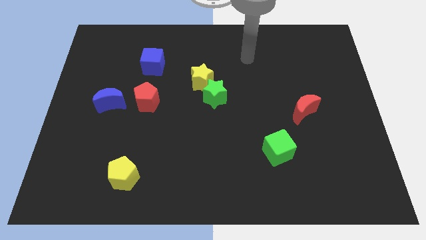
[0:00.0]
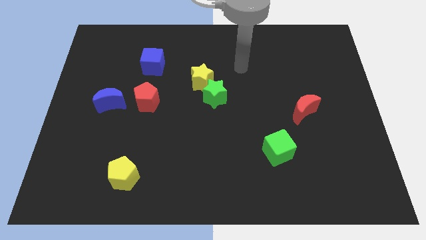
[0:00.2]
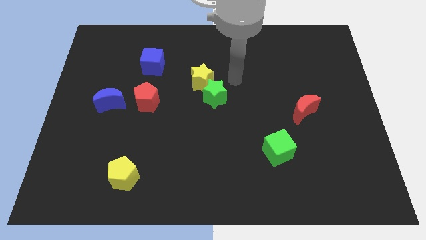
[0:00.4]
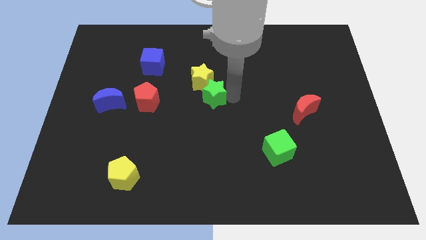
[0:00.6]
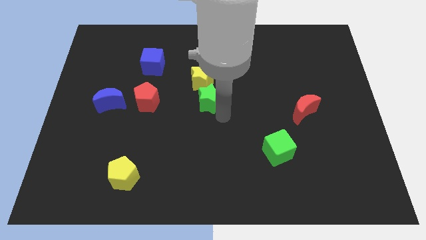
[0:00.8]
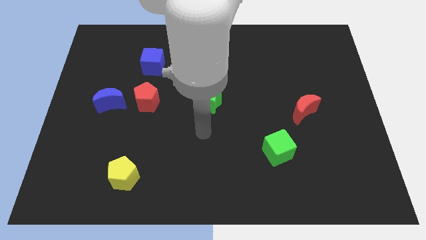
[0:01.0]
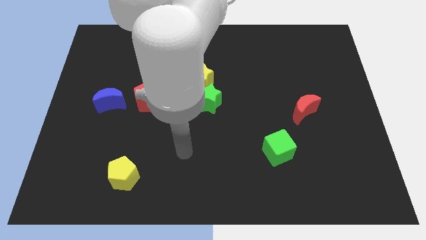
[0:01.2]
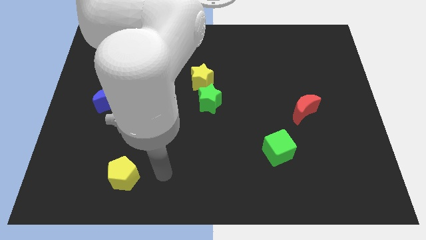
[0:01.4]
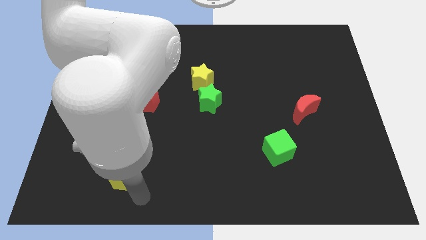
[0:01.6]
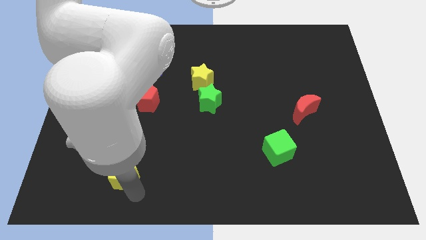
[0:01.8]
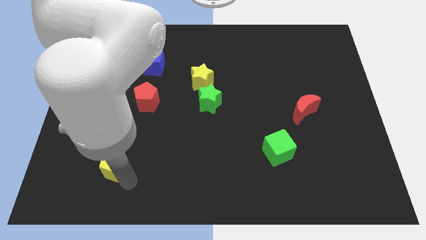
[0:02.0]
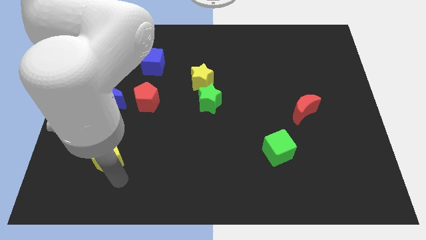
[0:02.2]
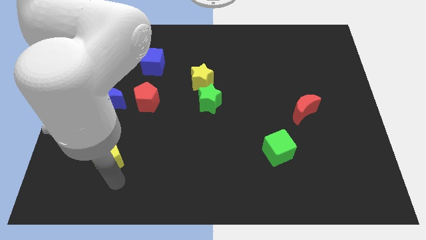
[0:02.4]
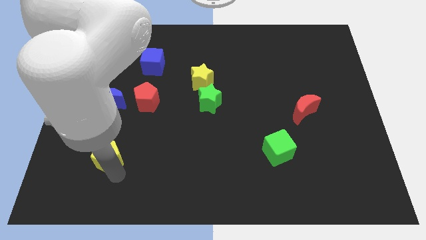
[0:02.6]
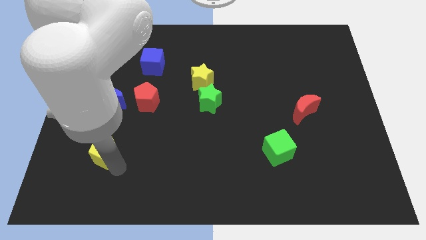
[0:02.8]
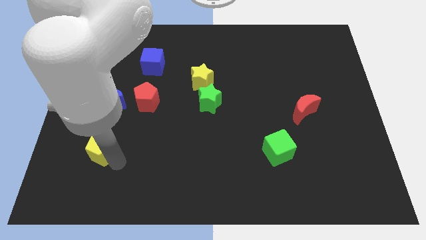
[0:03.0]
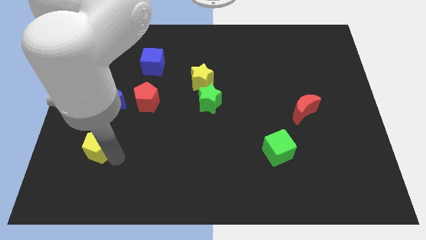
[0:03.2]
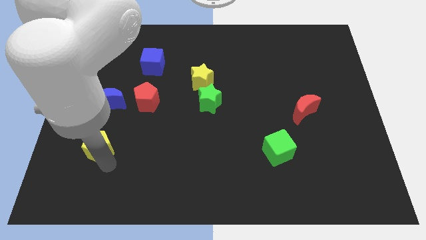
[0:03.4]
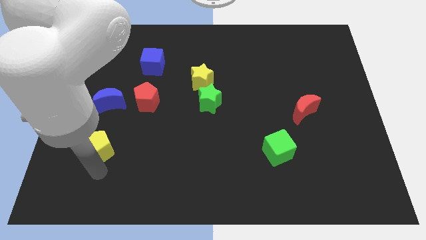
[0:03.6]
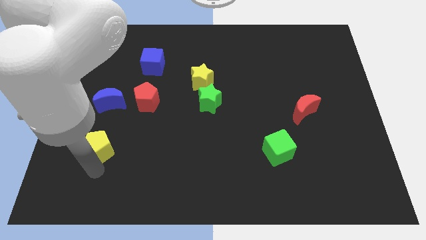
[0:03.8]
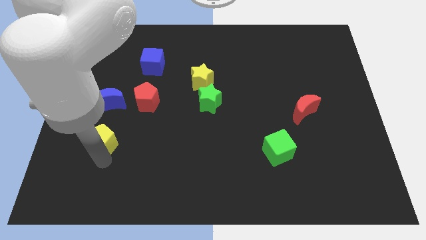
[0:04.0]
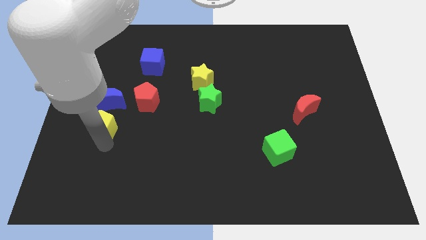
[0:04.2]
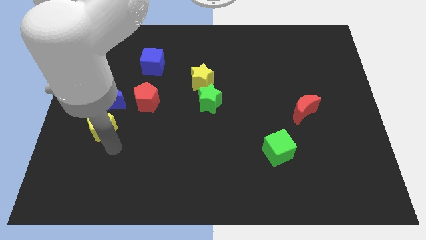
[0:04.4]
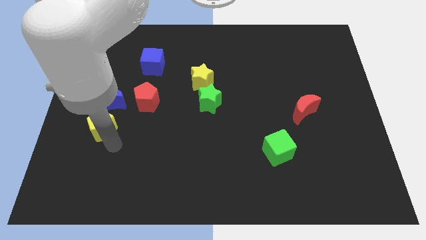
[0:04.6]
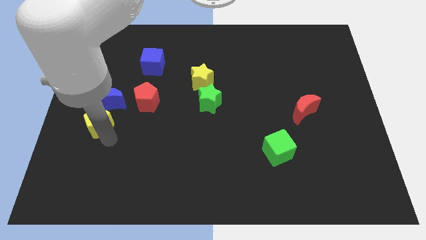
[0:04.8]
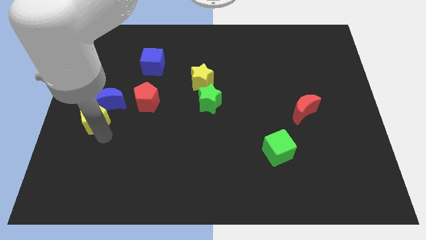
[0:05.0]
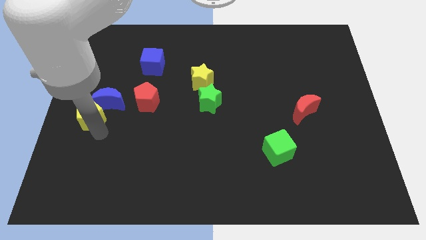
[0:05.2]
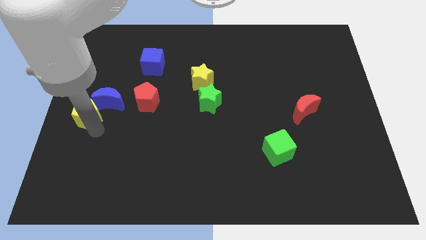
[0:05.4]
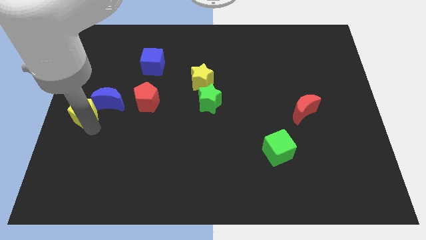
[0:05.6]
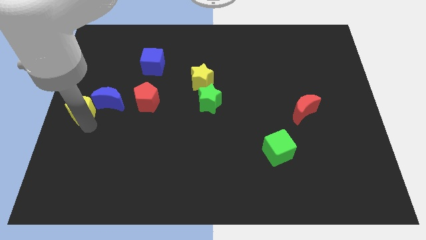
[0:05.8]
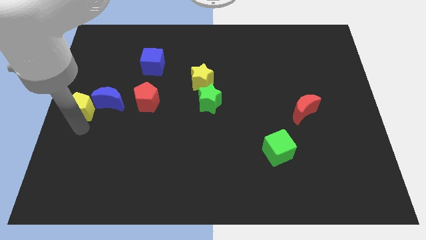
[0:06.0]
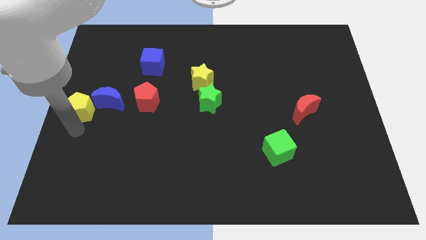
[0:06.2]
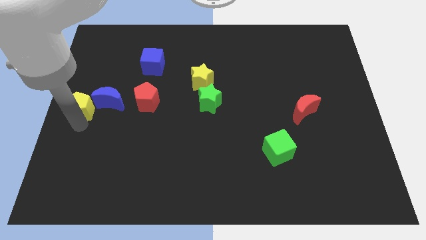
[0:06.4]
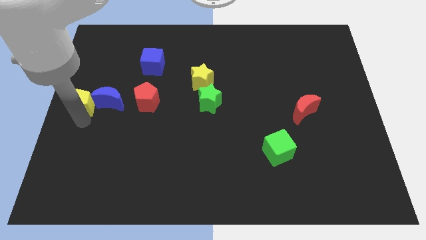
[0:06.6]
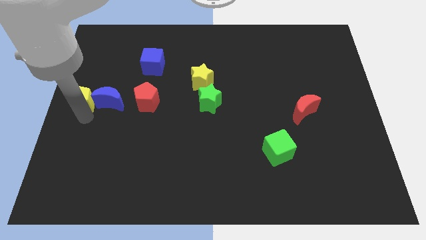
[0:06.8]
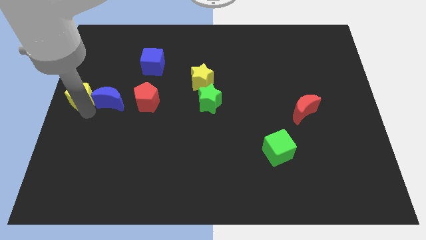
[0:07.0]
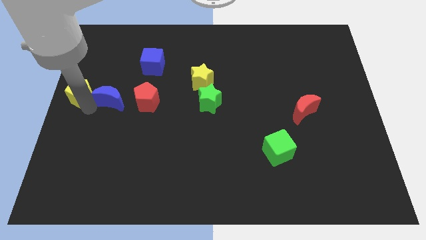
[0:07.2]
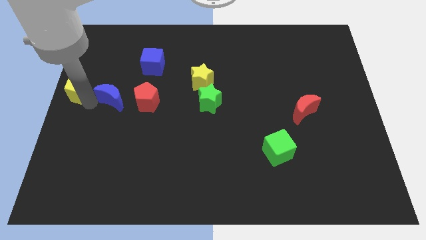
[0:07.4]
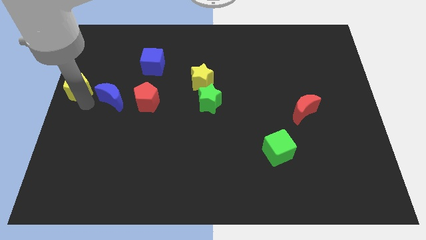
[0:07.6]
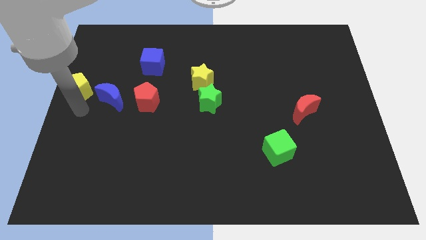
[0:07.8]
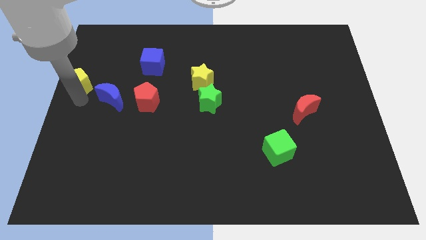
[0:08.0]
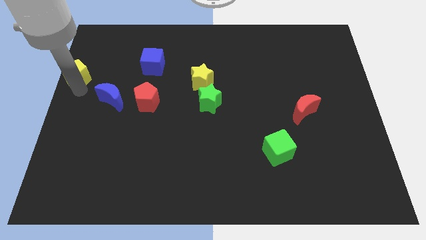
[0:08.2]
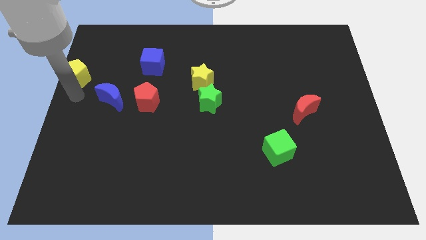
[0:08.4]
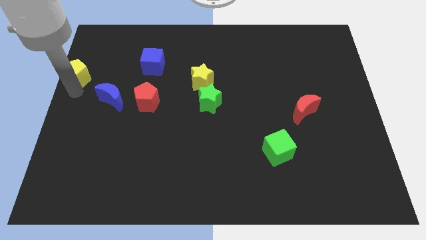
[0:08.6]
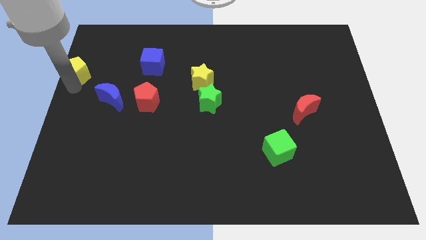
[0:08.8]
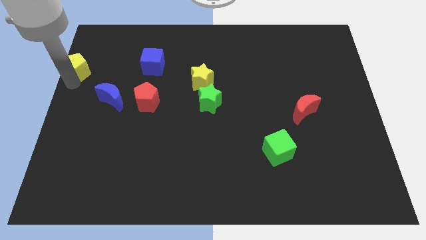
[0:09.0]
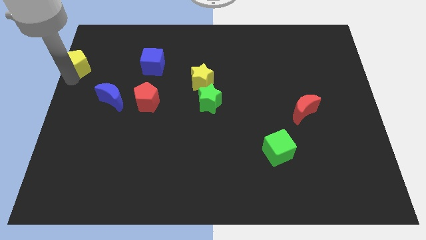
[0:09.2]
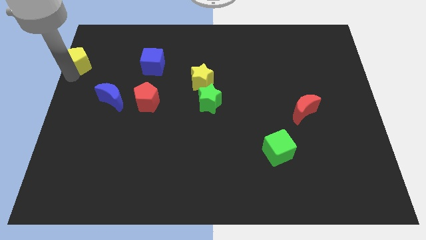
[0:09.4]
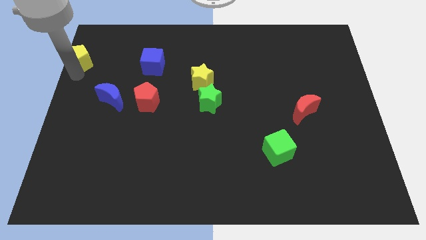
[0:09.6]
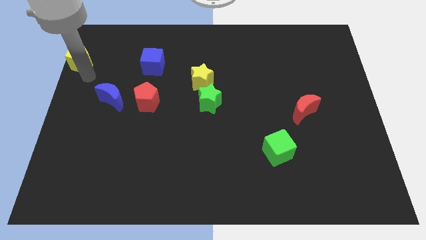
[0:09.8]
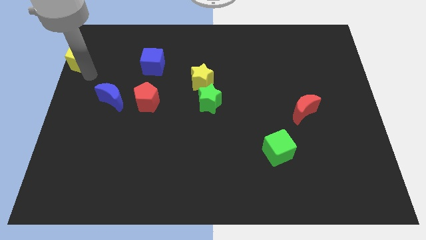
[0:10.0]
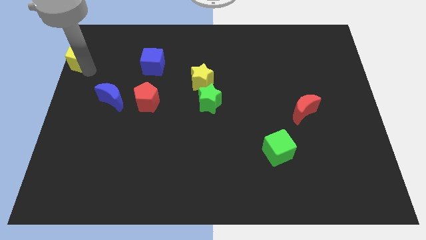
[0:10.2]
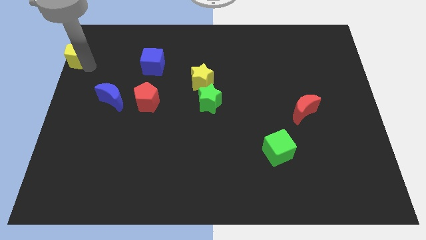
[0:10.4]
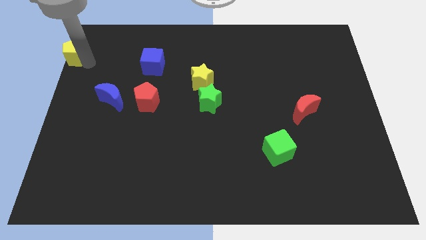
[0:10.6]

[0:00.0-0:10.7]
move the yellow pentagon to the top left

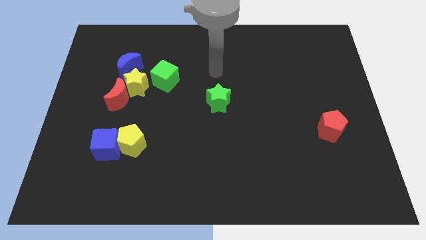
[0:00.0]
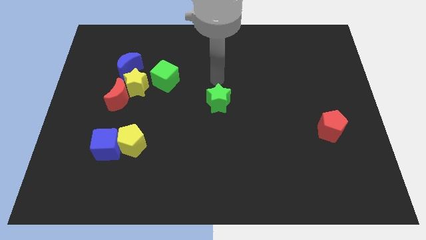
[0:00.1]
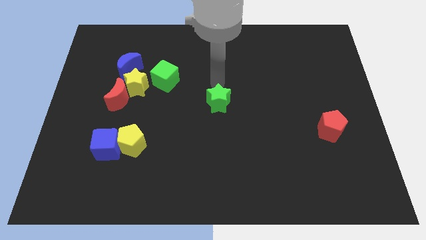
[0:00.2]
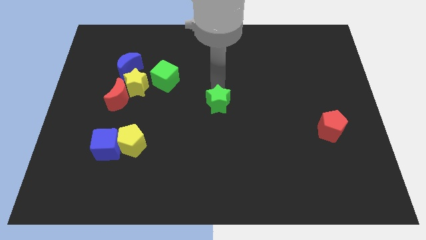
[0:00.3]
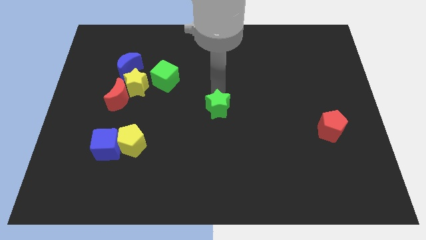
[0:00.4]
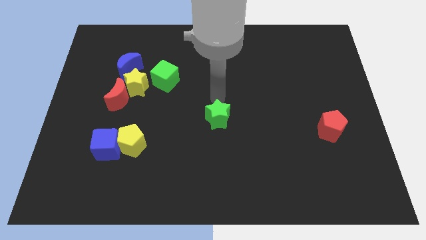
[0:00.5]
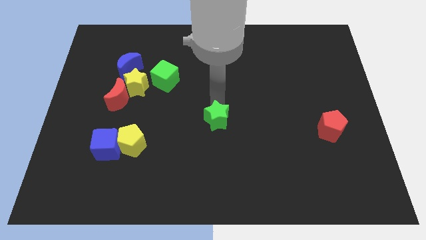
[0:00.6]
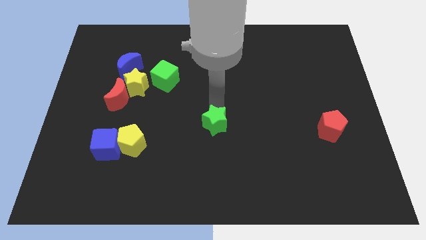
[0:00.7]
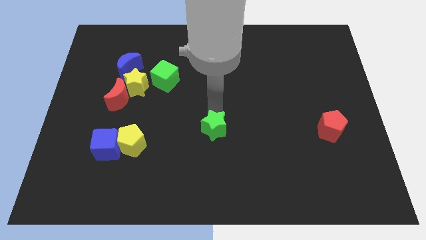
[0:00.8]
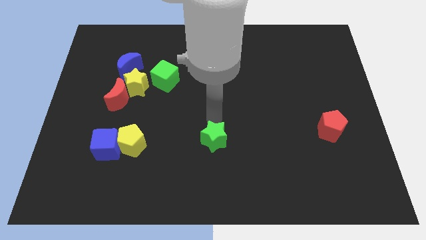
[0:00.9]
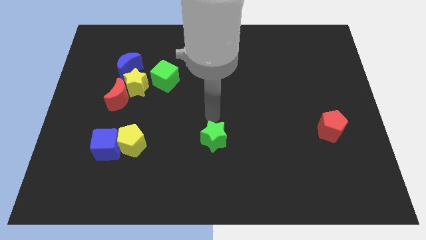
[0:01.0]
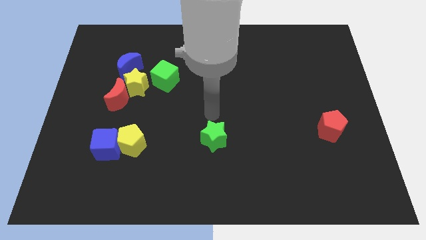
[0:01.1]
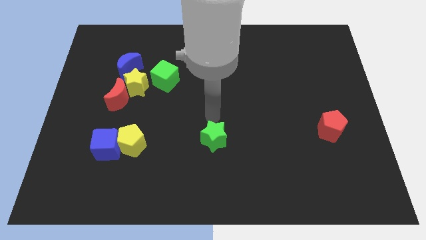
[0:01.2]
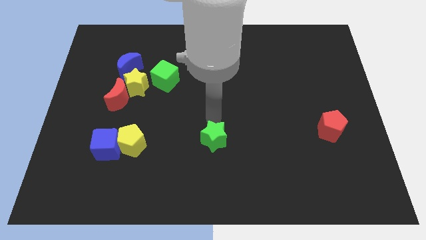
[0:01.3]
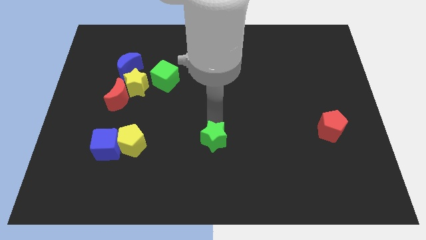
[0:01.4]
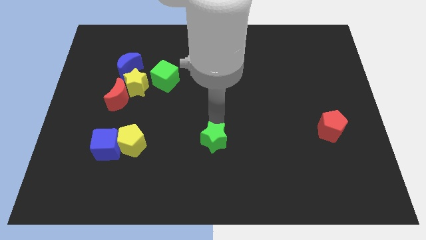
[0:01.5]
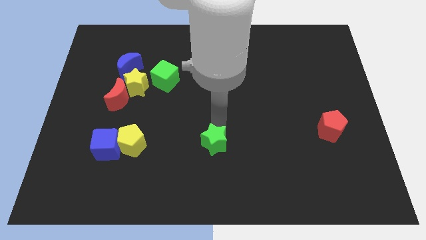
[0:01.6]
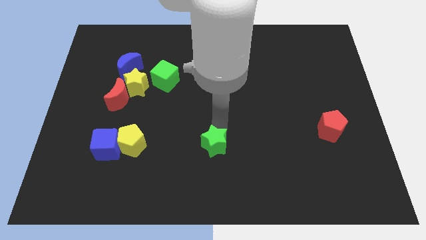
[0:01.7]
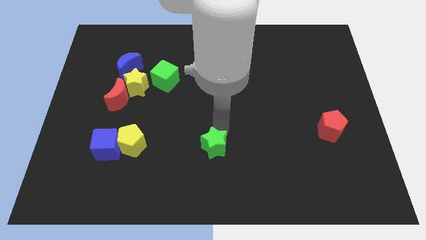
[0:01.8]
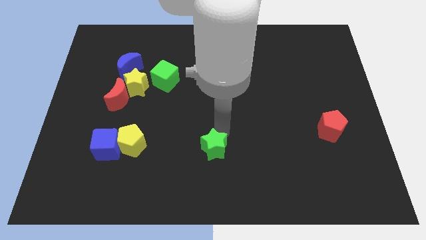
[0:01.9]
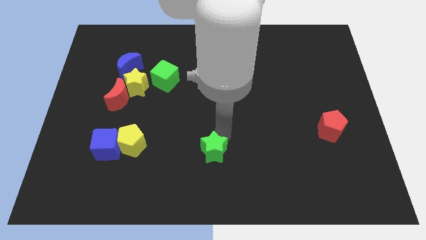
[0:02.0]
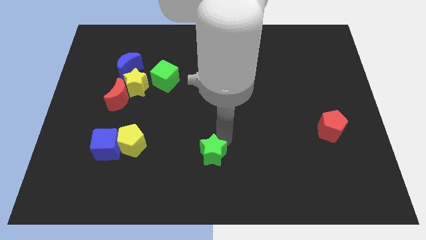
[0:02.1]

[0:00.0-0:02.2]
put the green star to the bottom side
